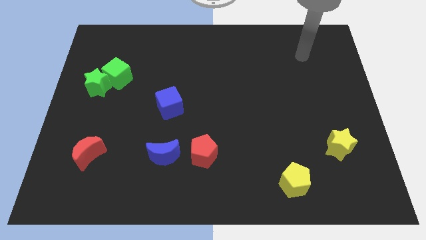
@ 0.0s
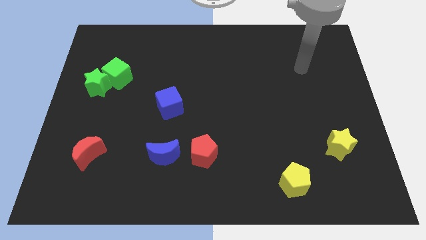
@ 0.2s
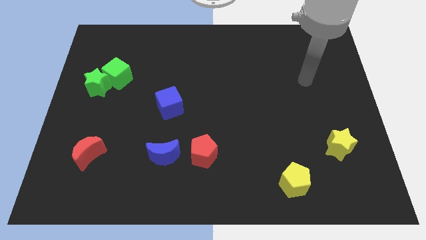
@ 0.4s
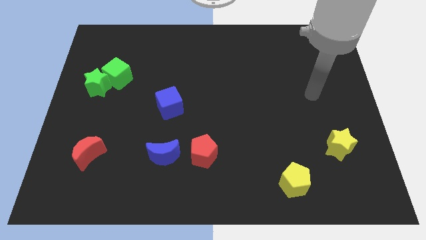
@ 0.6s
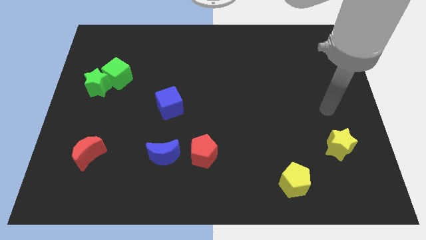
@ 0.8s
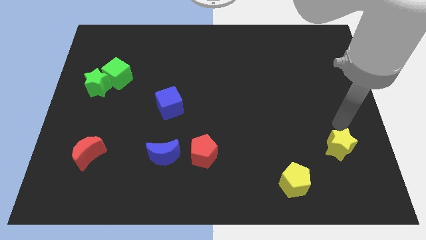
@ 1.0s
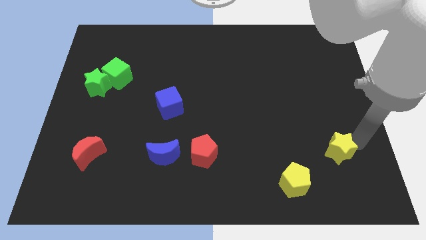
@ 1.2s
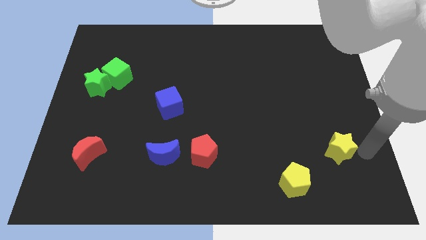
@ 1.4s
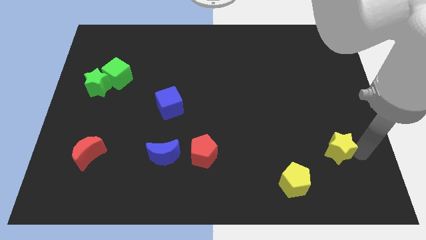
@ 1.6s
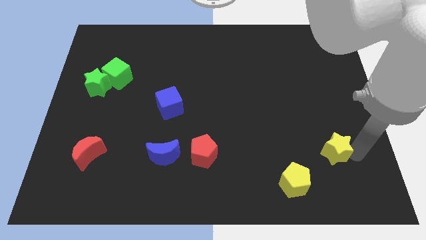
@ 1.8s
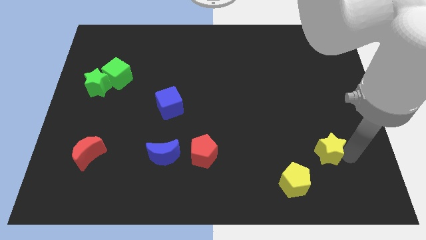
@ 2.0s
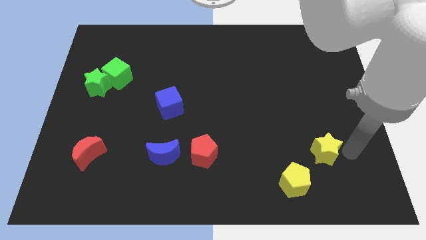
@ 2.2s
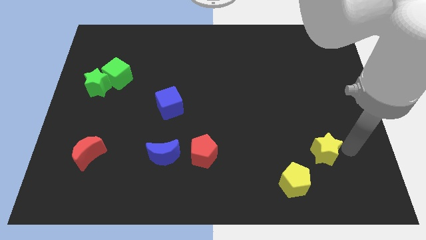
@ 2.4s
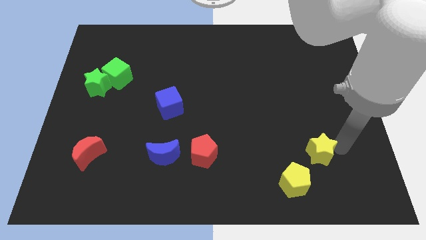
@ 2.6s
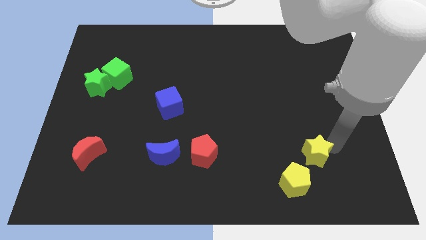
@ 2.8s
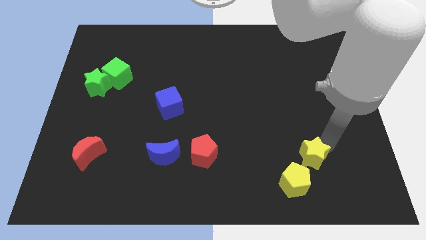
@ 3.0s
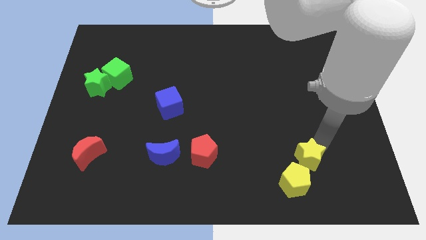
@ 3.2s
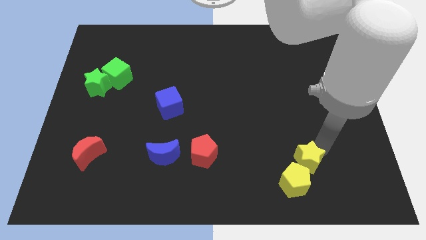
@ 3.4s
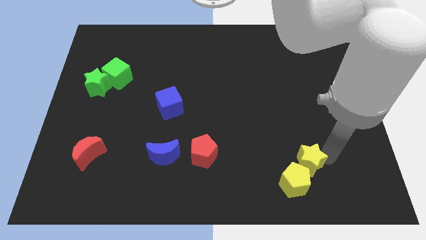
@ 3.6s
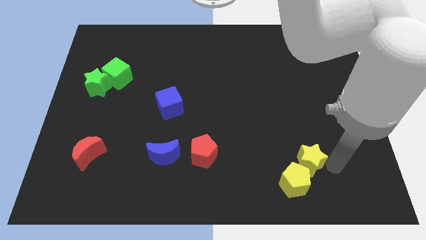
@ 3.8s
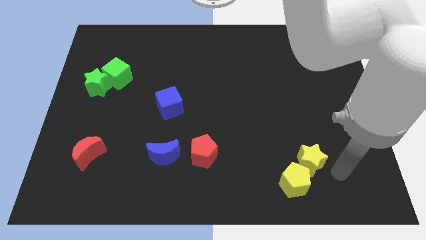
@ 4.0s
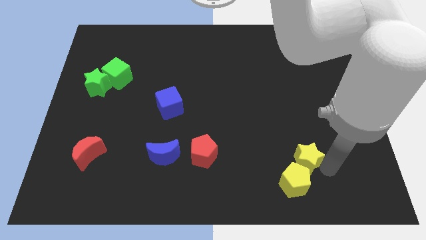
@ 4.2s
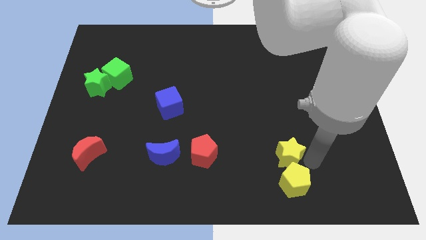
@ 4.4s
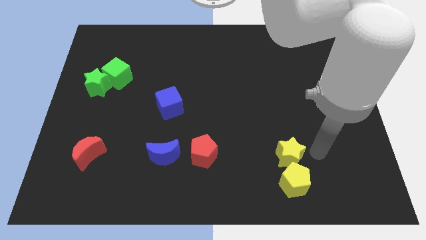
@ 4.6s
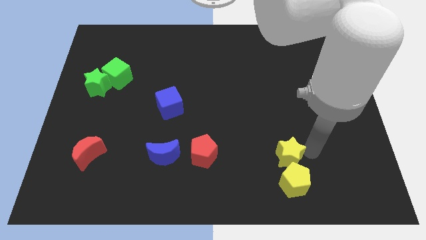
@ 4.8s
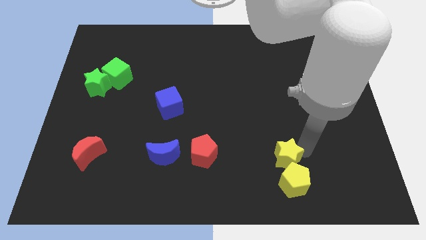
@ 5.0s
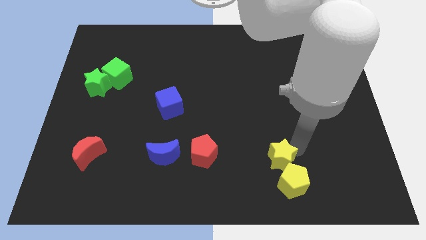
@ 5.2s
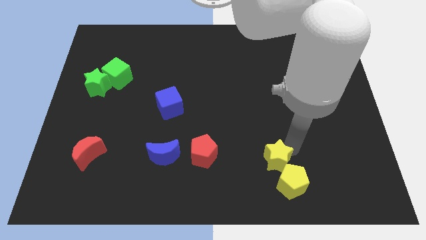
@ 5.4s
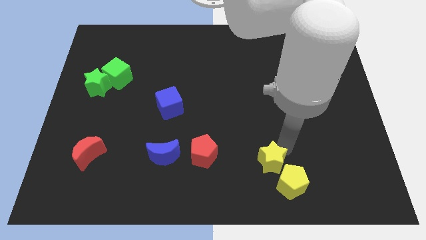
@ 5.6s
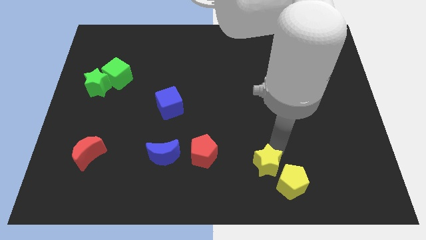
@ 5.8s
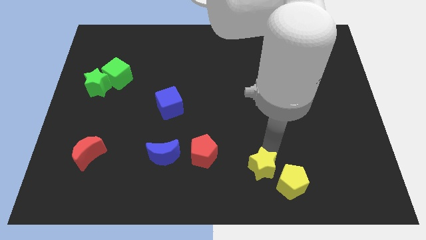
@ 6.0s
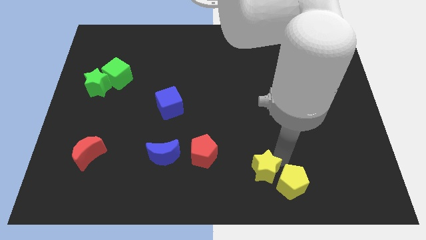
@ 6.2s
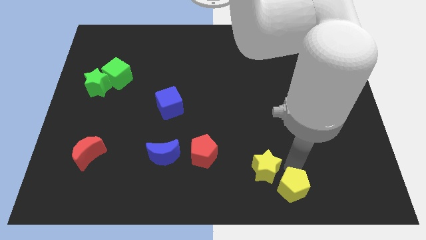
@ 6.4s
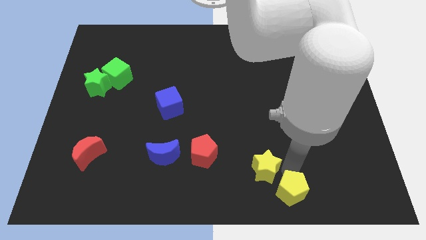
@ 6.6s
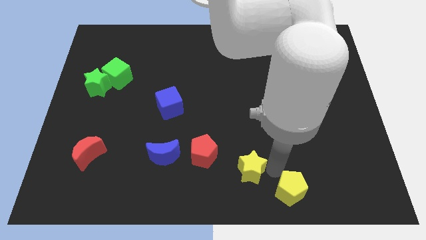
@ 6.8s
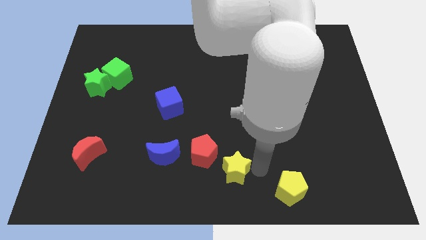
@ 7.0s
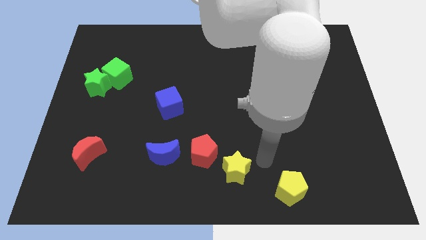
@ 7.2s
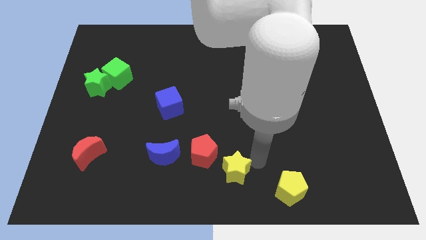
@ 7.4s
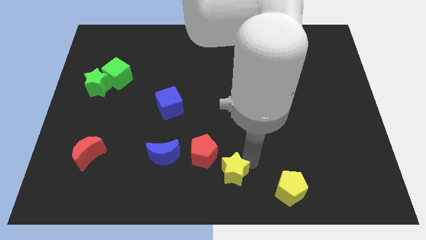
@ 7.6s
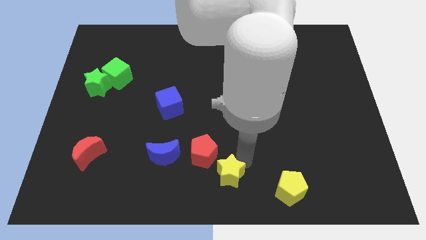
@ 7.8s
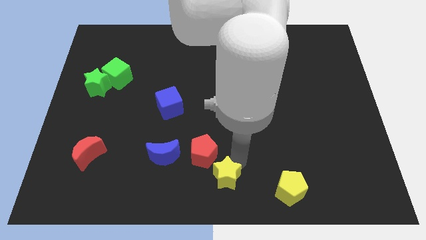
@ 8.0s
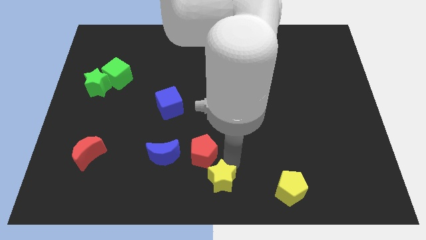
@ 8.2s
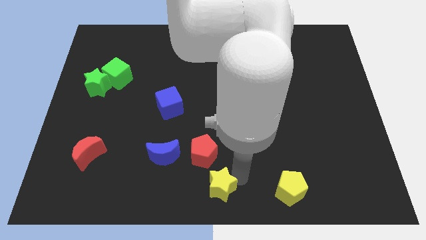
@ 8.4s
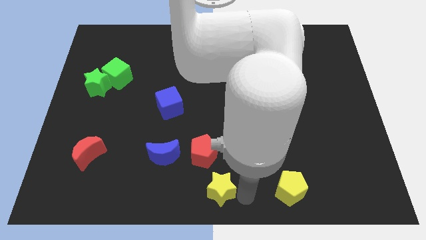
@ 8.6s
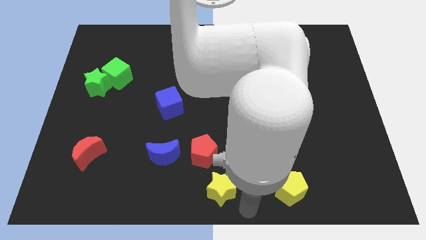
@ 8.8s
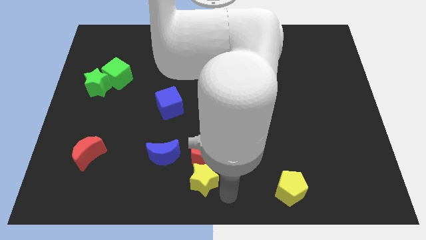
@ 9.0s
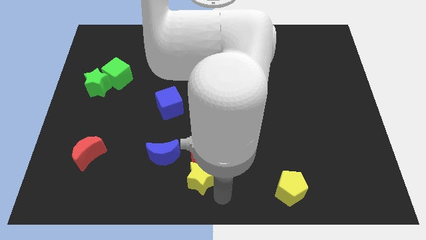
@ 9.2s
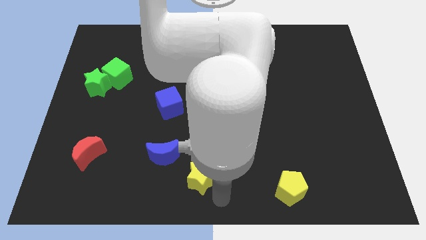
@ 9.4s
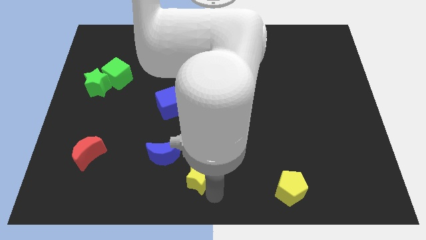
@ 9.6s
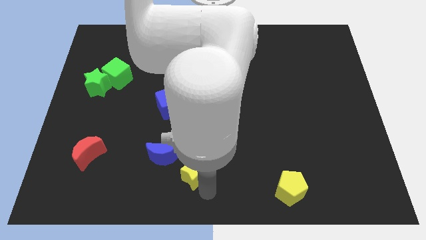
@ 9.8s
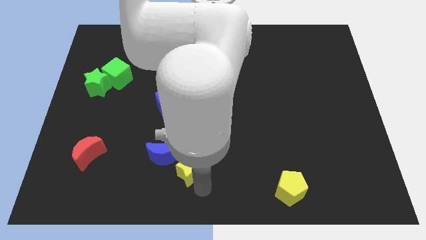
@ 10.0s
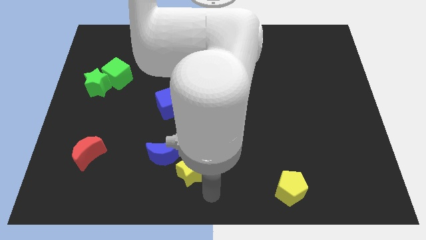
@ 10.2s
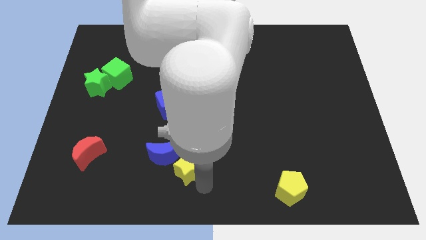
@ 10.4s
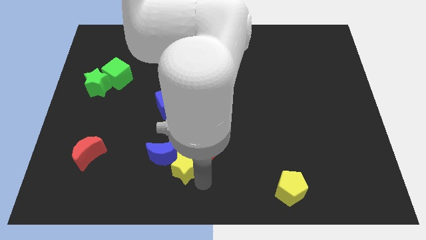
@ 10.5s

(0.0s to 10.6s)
put the yellow star next to the blue moon

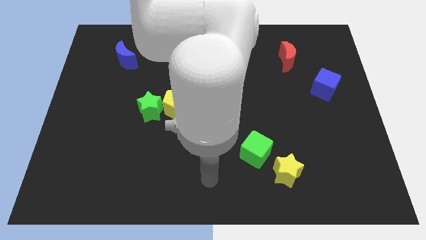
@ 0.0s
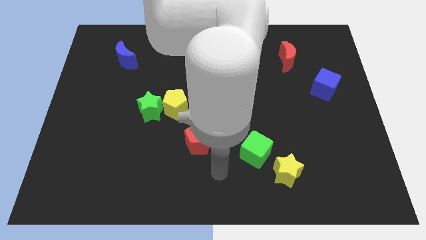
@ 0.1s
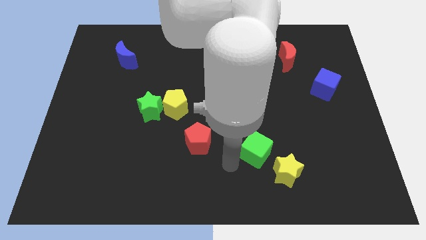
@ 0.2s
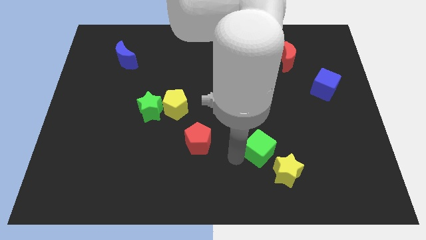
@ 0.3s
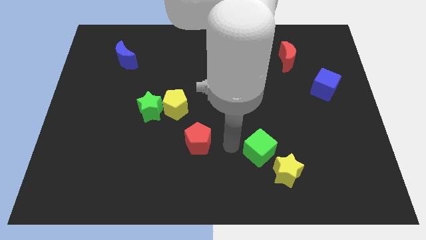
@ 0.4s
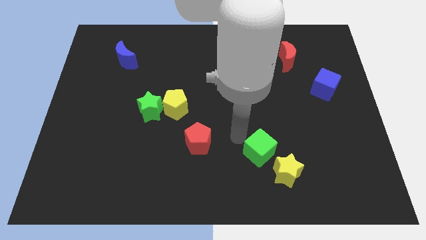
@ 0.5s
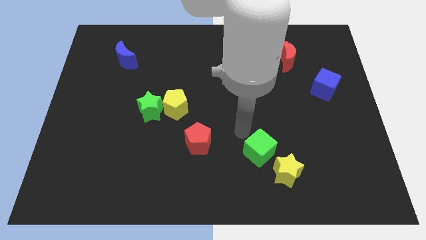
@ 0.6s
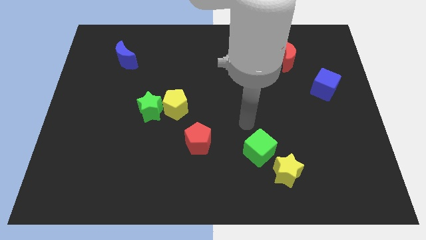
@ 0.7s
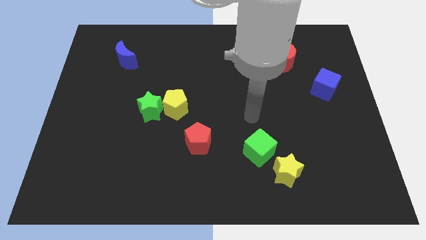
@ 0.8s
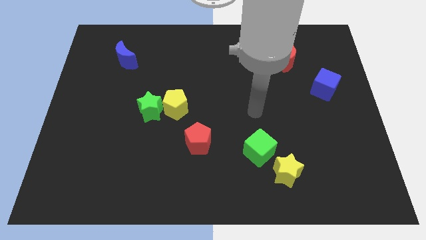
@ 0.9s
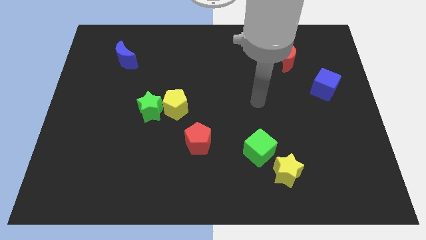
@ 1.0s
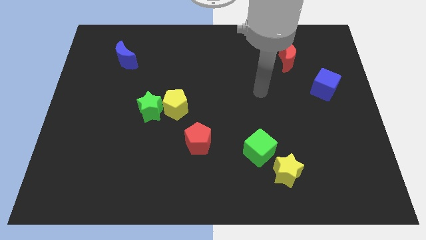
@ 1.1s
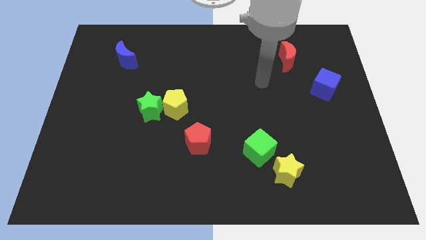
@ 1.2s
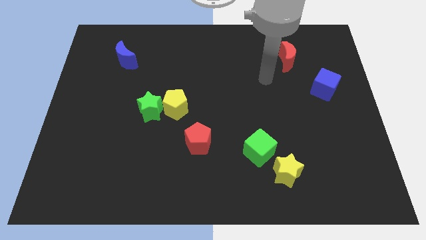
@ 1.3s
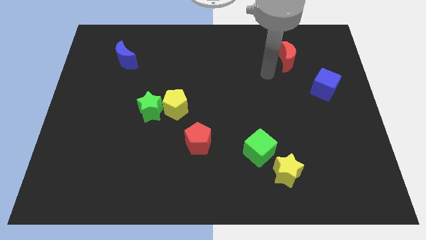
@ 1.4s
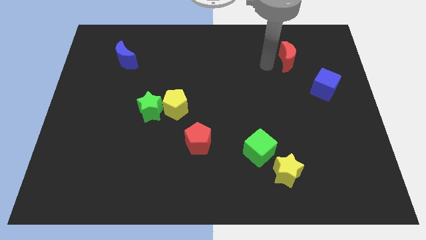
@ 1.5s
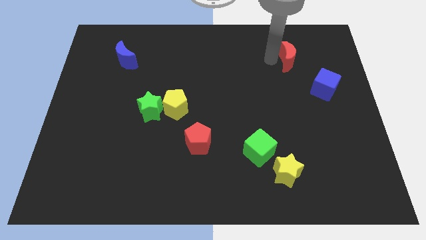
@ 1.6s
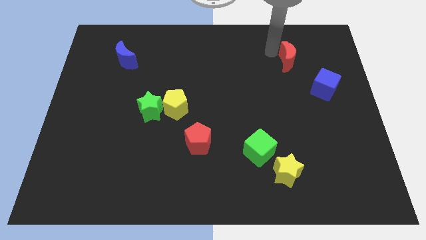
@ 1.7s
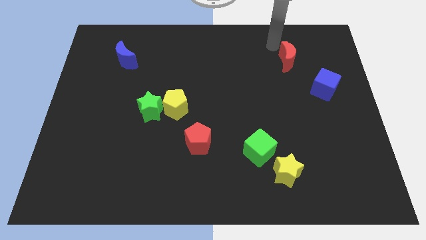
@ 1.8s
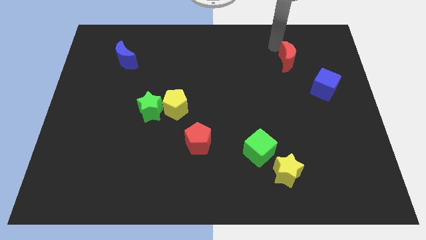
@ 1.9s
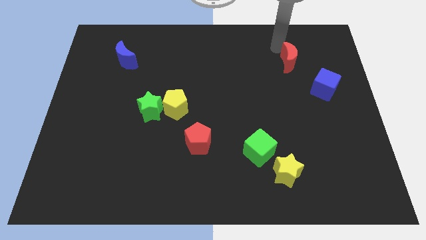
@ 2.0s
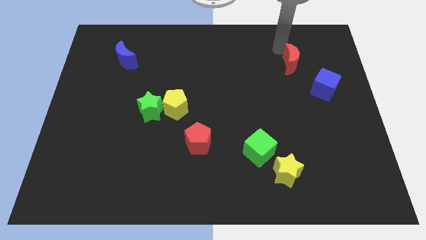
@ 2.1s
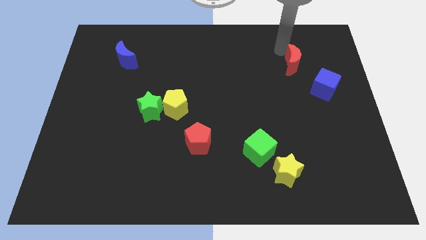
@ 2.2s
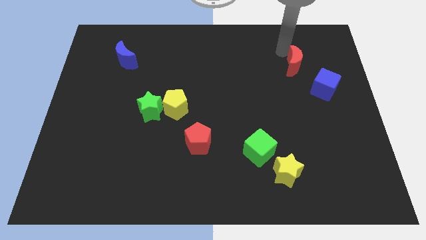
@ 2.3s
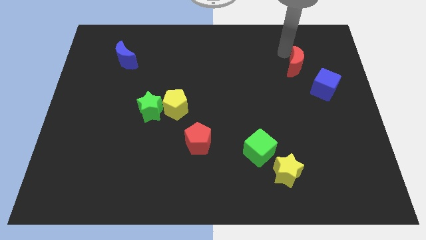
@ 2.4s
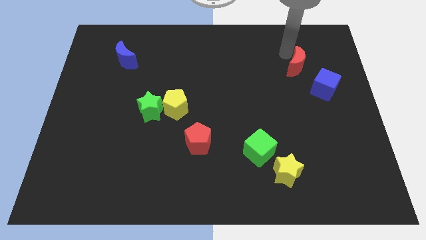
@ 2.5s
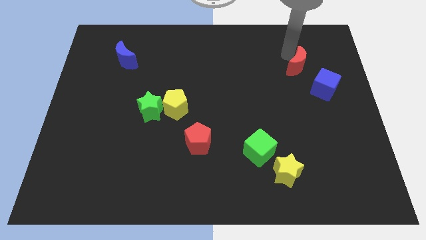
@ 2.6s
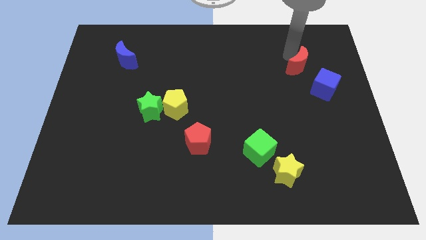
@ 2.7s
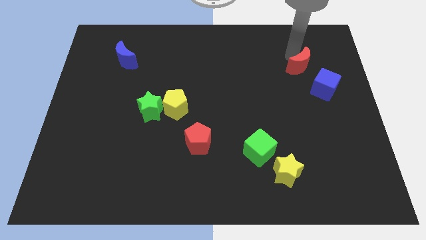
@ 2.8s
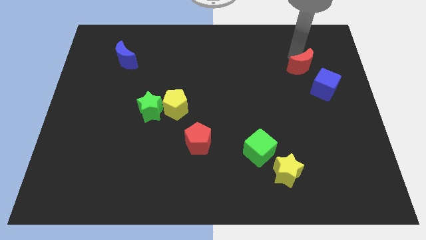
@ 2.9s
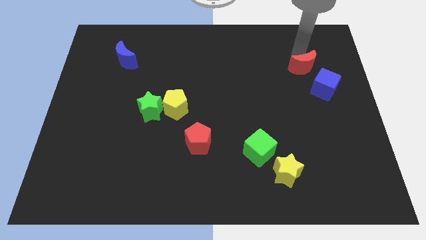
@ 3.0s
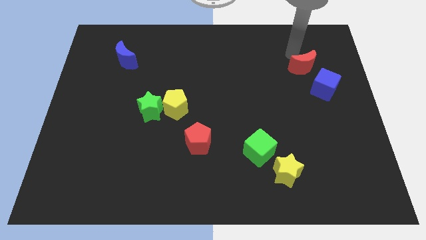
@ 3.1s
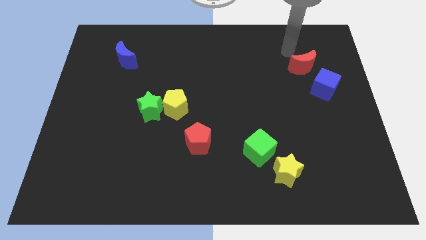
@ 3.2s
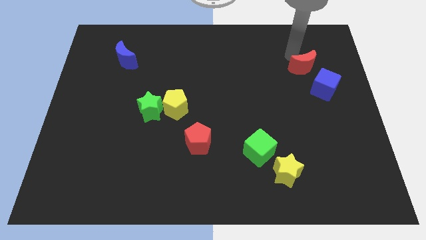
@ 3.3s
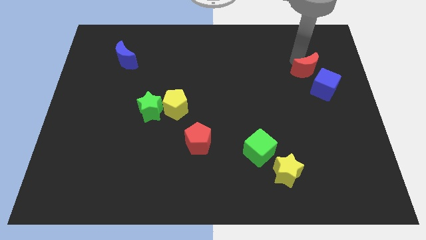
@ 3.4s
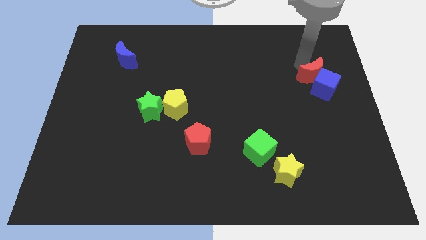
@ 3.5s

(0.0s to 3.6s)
slide the red moon next to the blue cube
